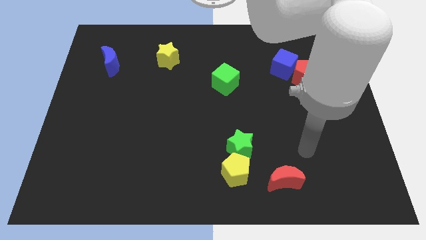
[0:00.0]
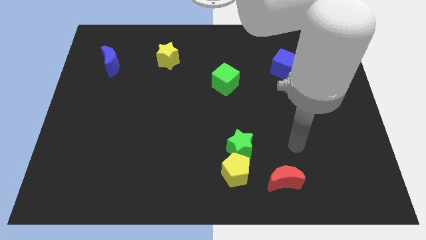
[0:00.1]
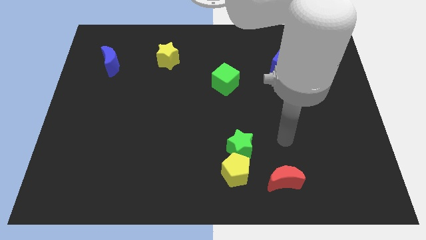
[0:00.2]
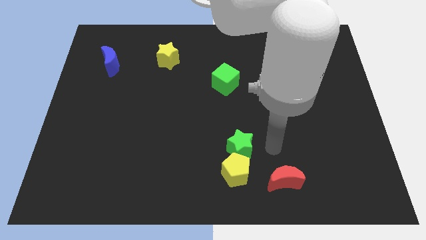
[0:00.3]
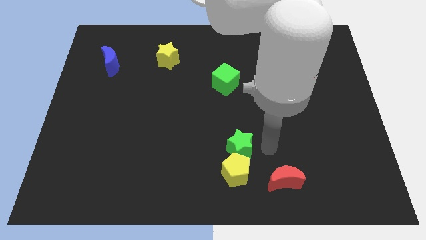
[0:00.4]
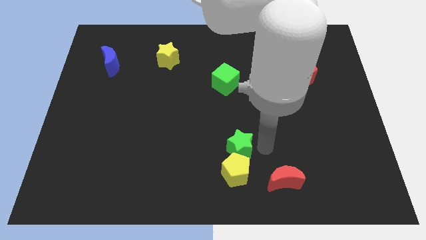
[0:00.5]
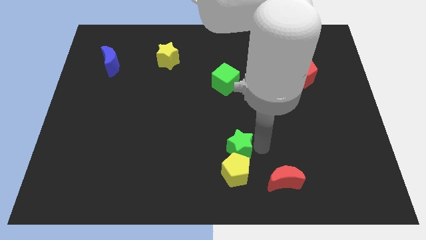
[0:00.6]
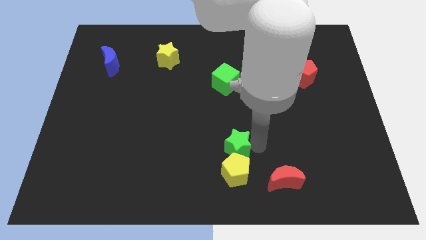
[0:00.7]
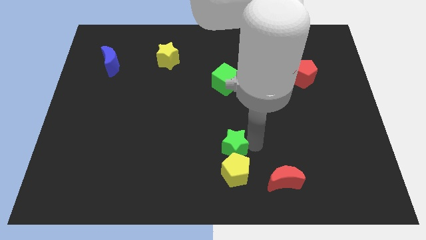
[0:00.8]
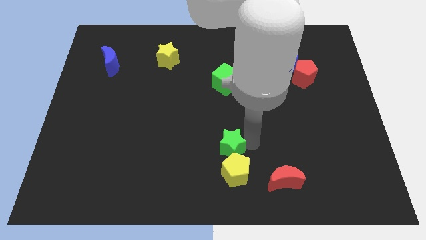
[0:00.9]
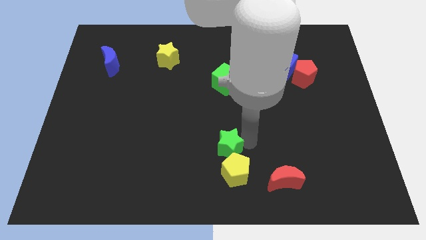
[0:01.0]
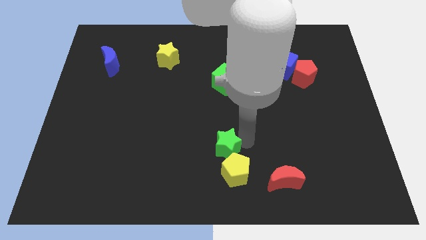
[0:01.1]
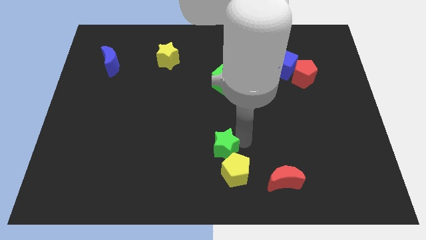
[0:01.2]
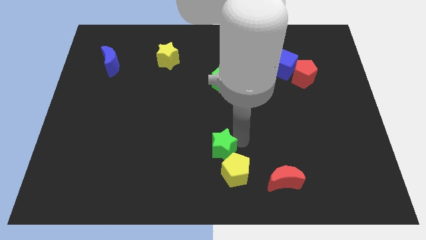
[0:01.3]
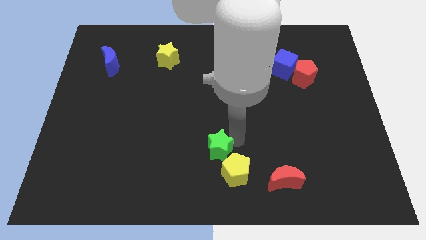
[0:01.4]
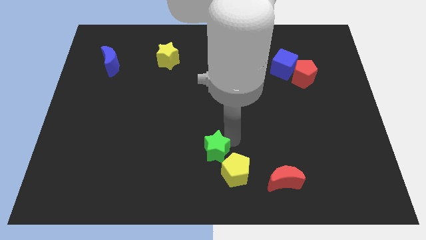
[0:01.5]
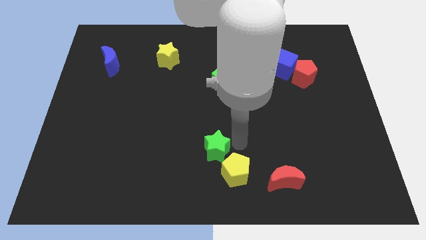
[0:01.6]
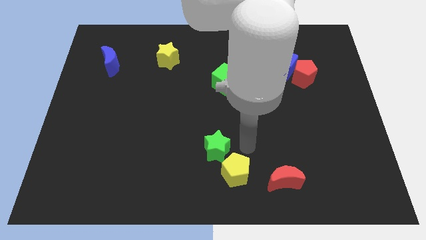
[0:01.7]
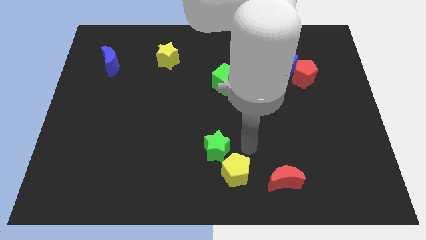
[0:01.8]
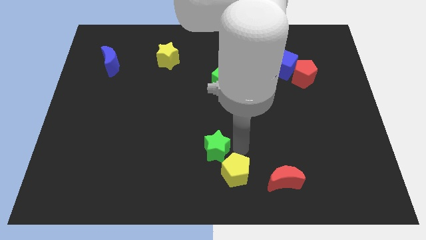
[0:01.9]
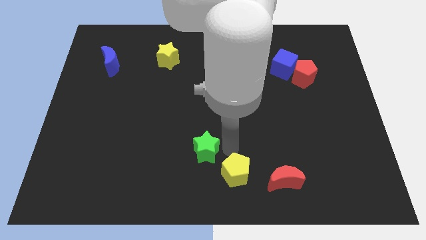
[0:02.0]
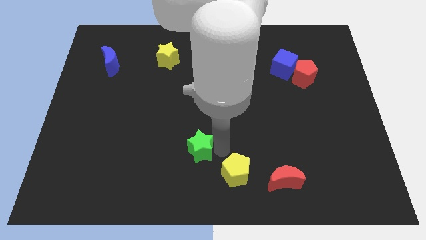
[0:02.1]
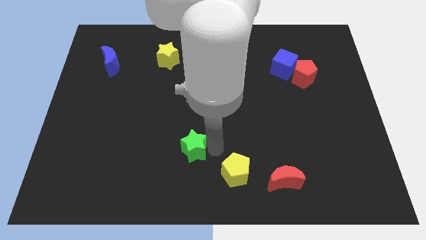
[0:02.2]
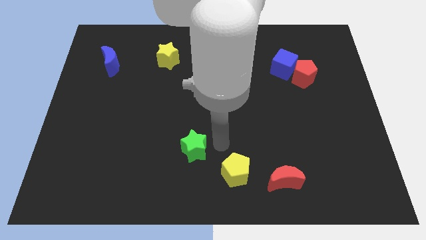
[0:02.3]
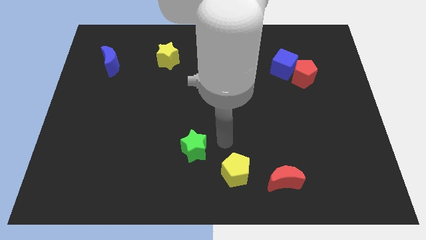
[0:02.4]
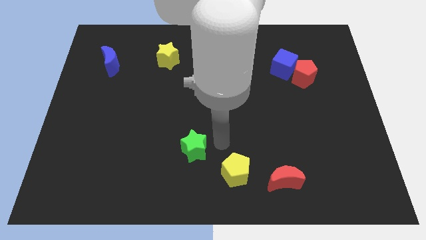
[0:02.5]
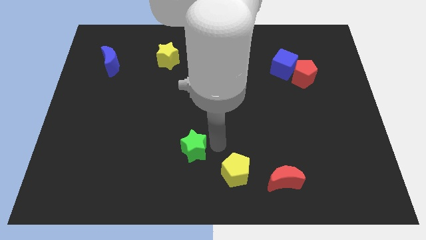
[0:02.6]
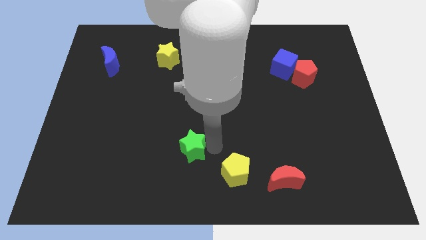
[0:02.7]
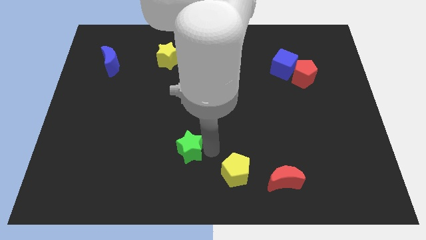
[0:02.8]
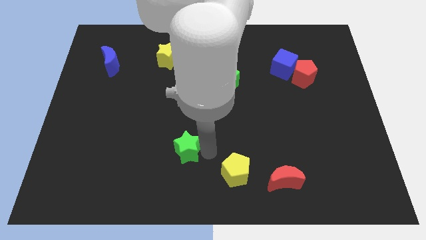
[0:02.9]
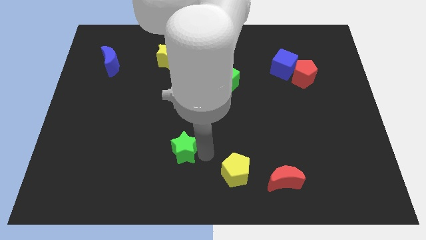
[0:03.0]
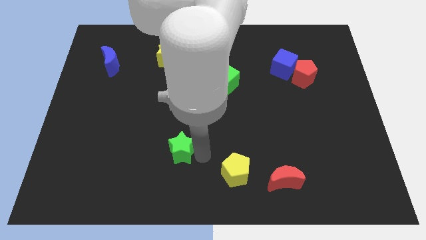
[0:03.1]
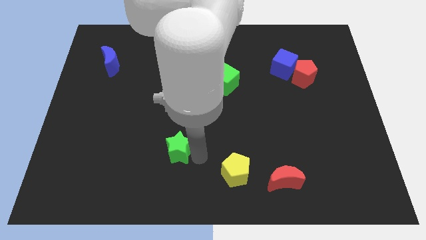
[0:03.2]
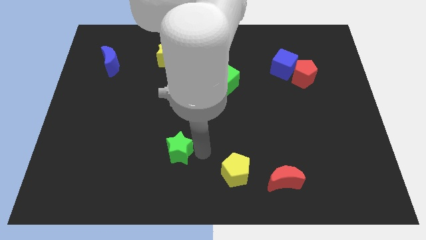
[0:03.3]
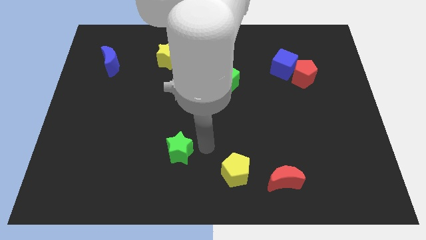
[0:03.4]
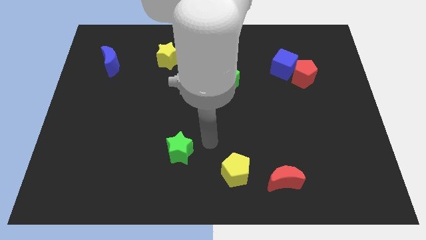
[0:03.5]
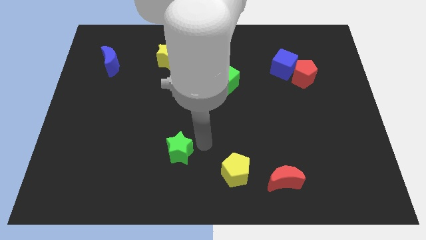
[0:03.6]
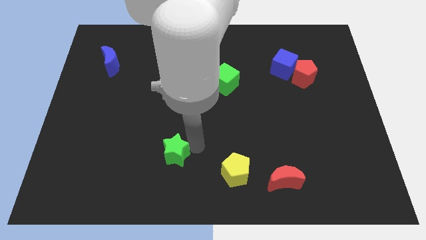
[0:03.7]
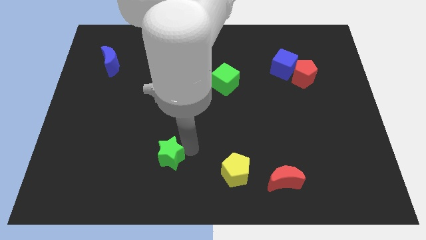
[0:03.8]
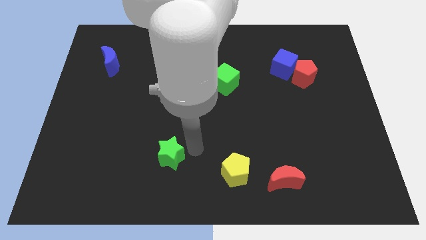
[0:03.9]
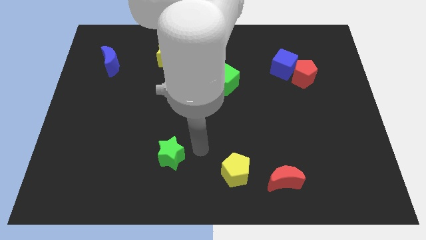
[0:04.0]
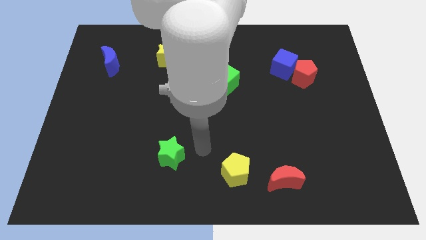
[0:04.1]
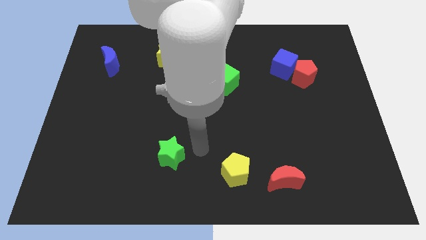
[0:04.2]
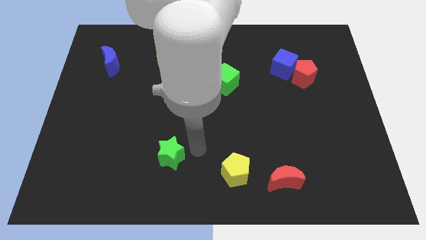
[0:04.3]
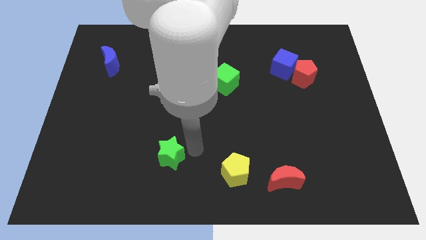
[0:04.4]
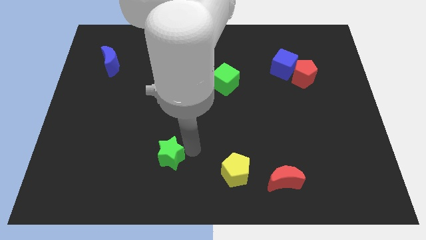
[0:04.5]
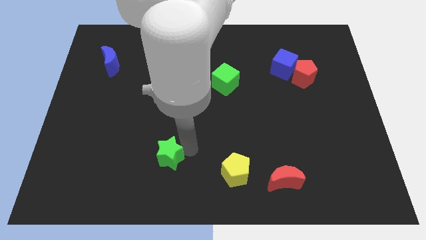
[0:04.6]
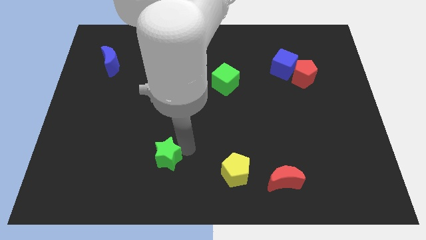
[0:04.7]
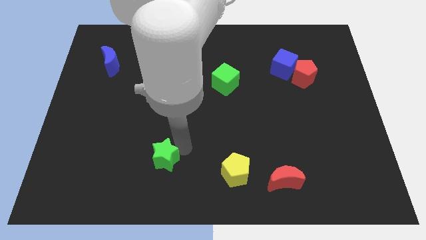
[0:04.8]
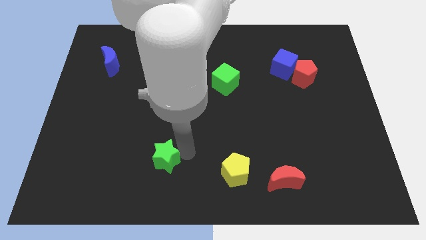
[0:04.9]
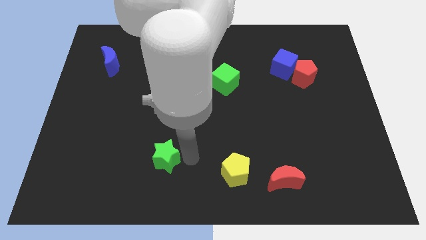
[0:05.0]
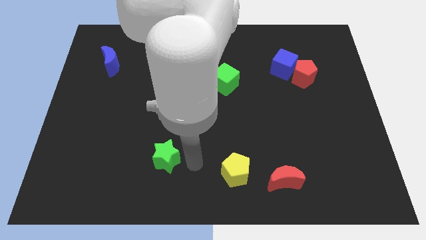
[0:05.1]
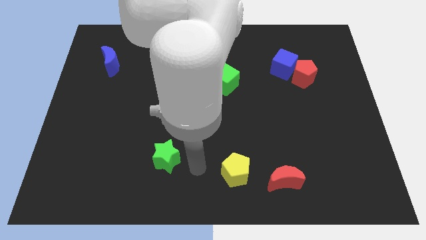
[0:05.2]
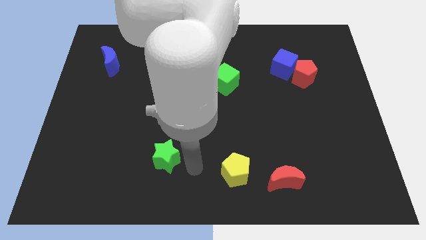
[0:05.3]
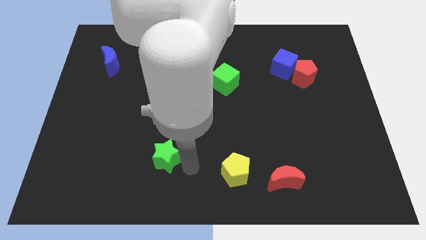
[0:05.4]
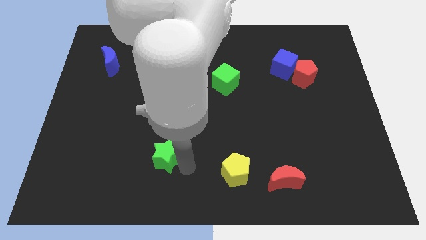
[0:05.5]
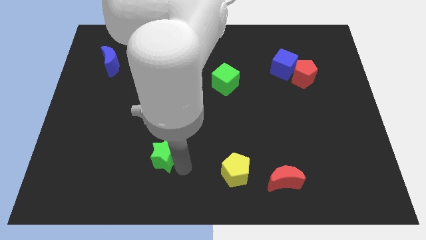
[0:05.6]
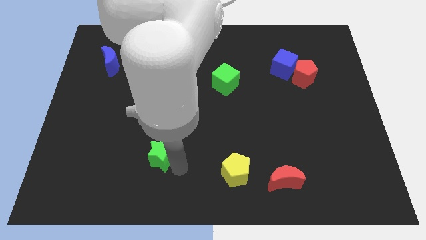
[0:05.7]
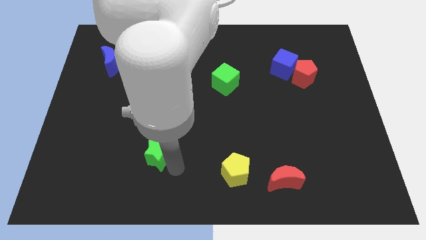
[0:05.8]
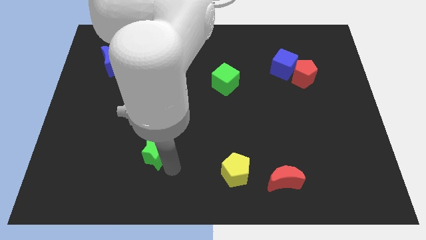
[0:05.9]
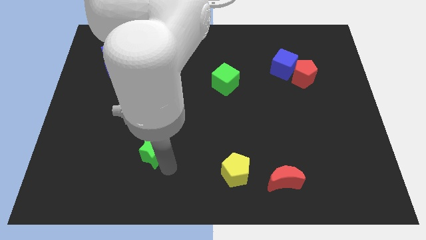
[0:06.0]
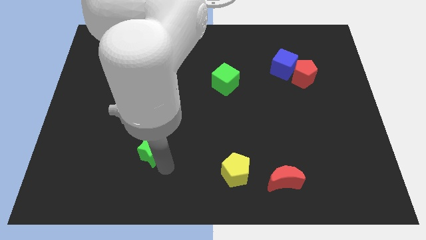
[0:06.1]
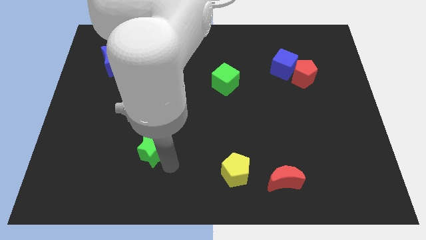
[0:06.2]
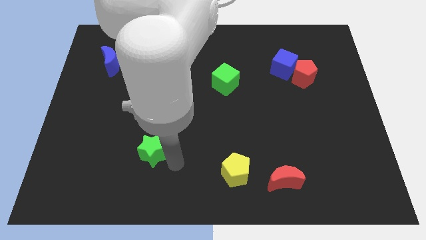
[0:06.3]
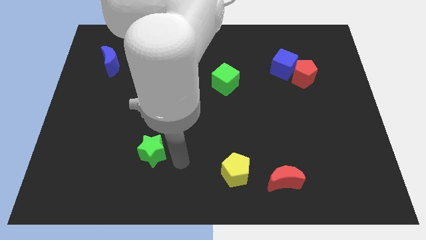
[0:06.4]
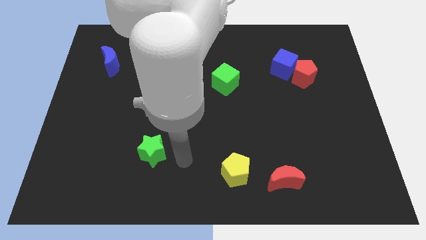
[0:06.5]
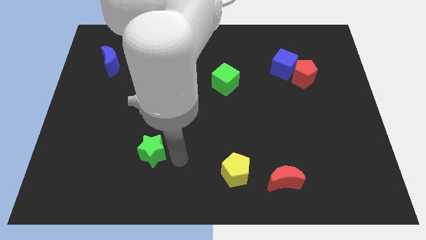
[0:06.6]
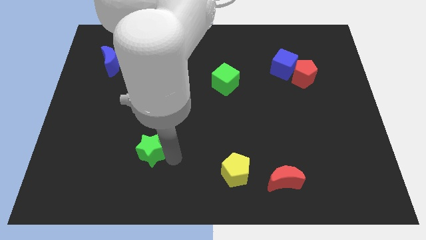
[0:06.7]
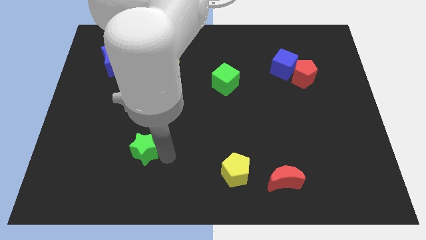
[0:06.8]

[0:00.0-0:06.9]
move the green star left

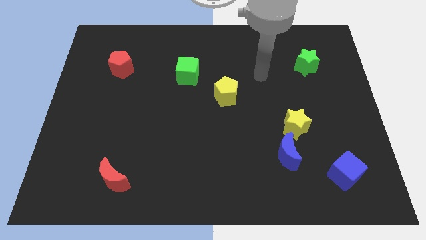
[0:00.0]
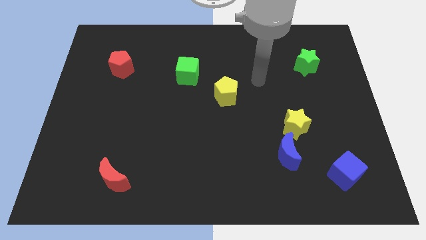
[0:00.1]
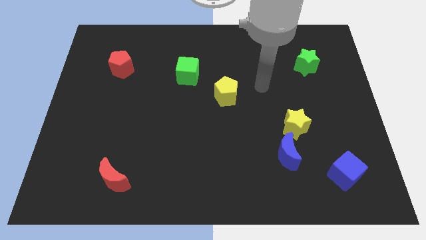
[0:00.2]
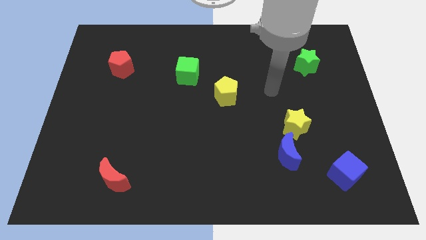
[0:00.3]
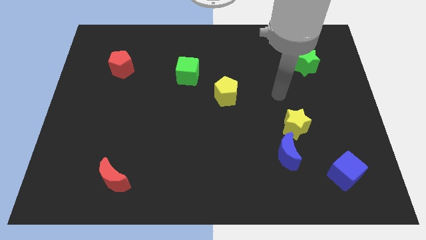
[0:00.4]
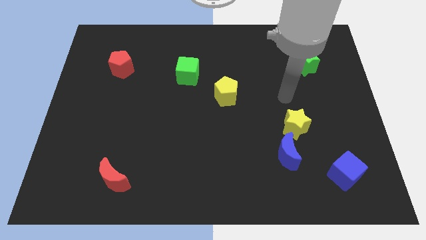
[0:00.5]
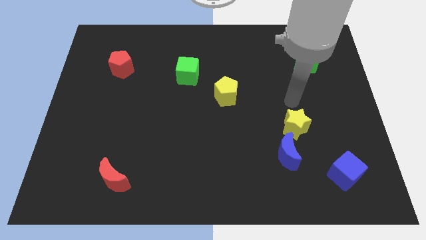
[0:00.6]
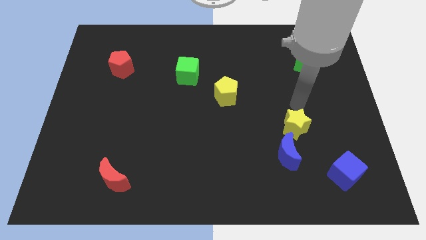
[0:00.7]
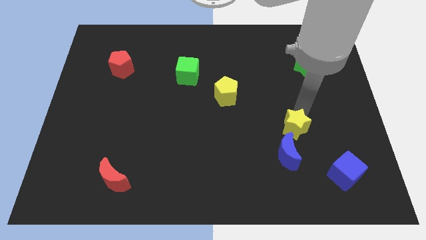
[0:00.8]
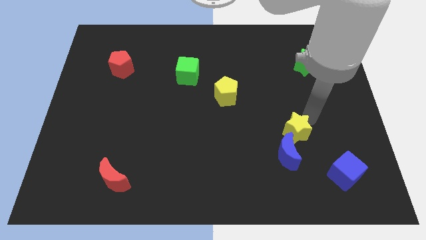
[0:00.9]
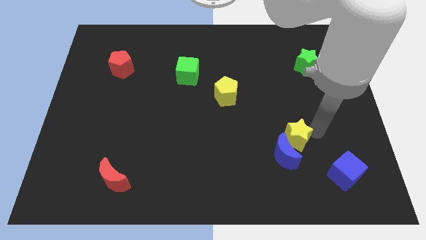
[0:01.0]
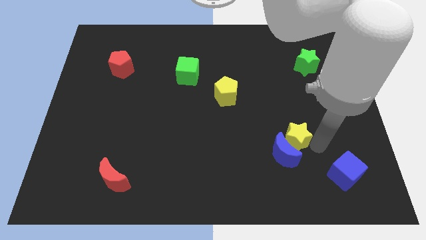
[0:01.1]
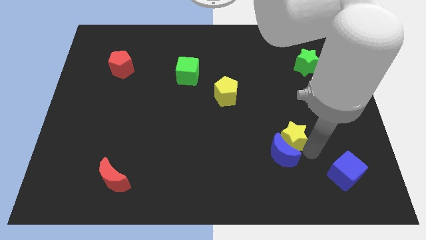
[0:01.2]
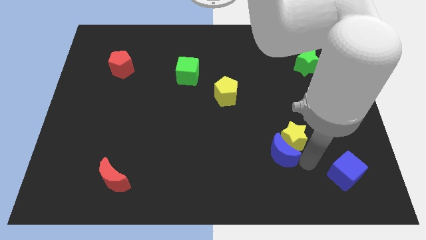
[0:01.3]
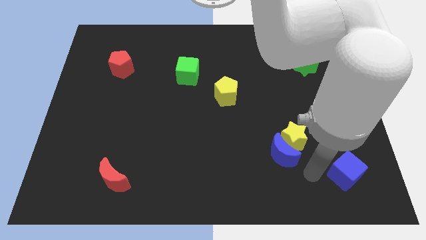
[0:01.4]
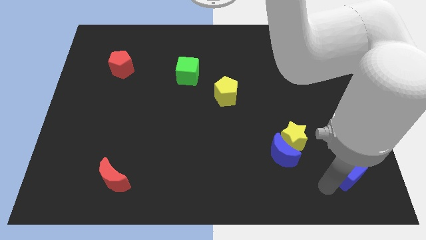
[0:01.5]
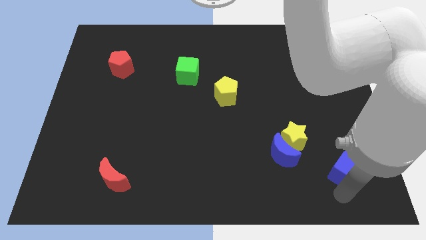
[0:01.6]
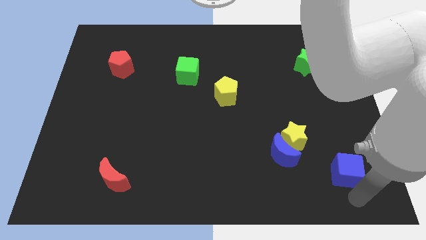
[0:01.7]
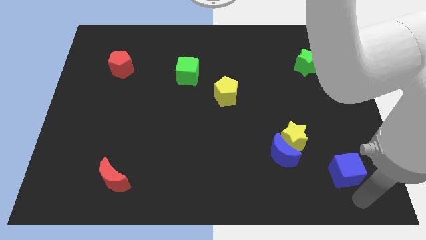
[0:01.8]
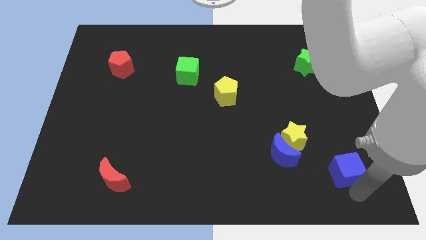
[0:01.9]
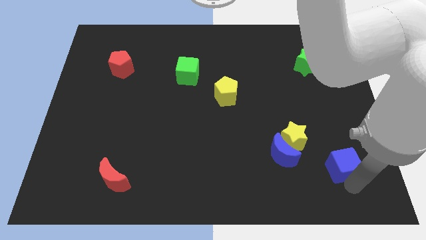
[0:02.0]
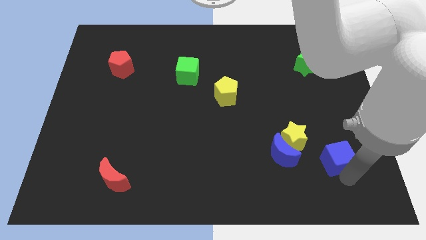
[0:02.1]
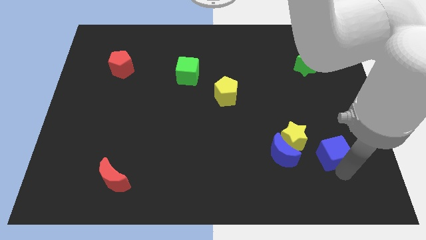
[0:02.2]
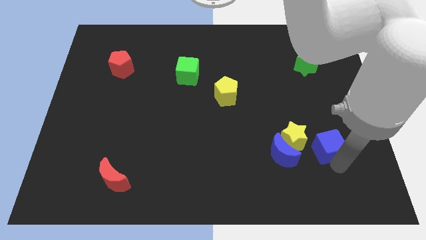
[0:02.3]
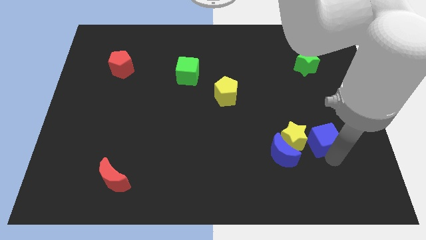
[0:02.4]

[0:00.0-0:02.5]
push the blue cube up and then left a little bit
